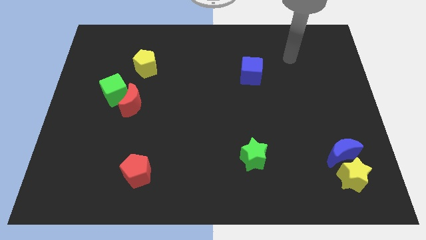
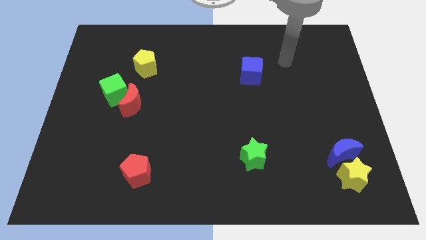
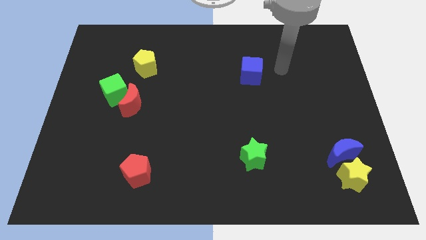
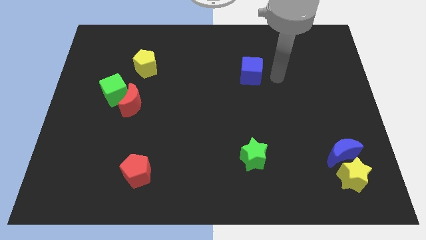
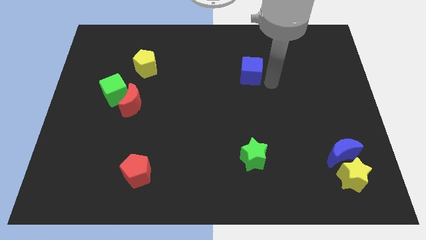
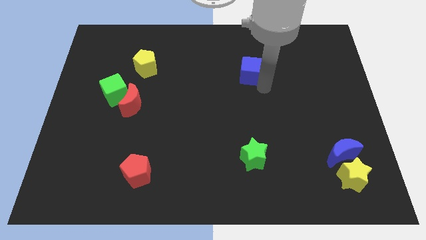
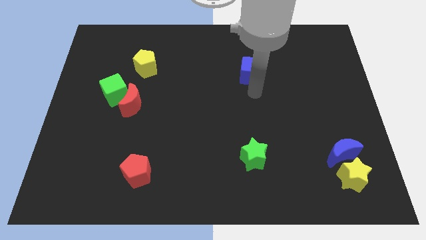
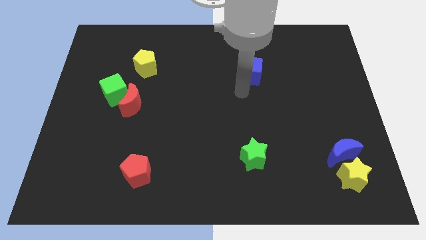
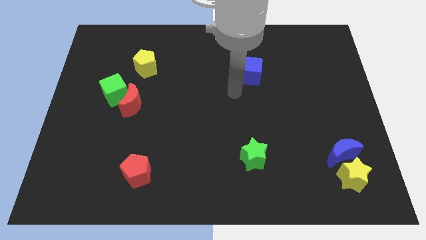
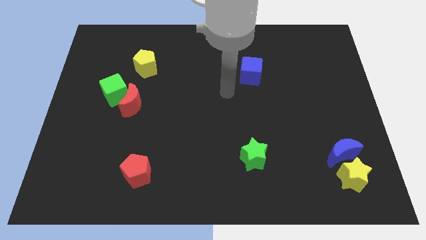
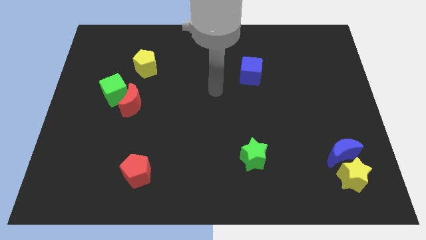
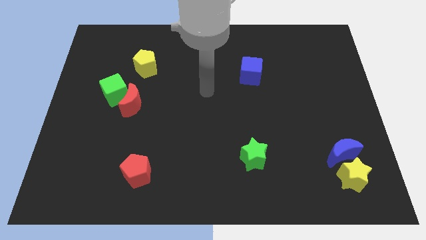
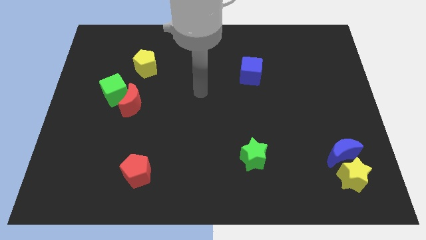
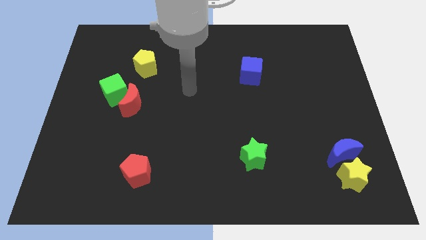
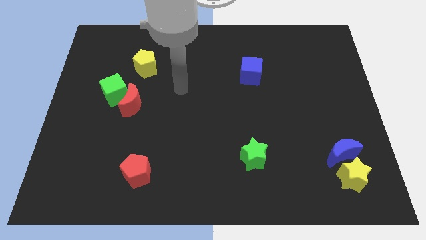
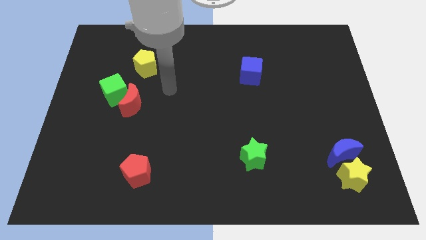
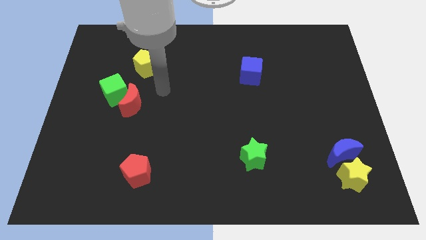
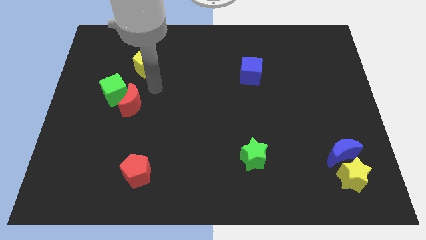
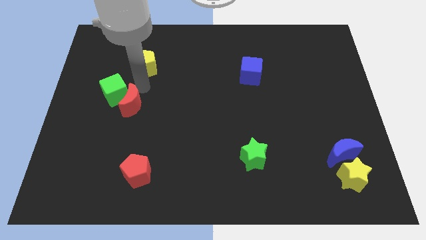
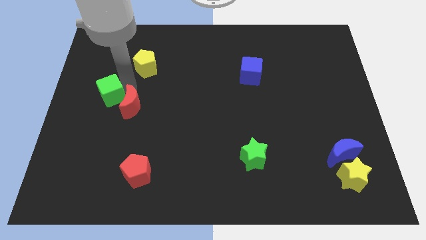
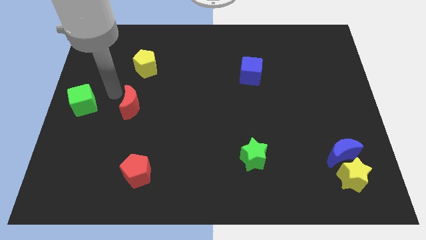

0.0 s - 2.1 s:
pull the red moon apart from the green cube

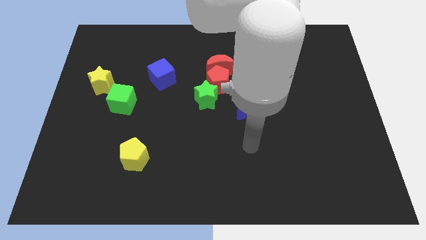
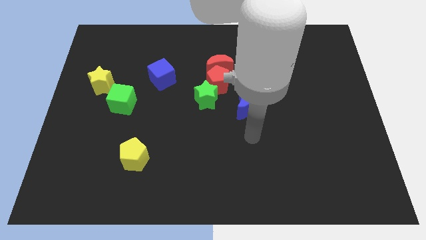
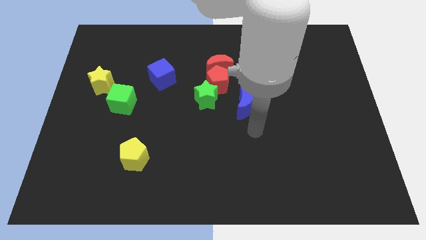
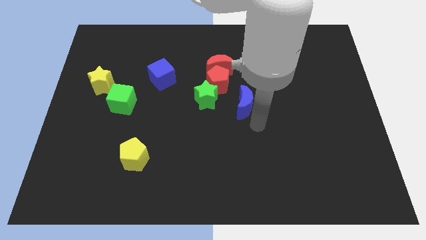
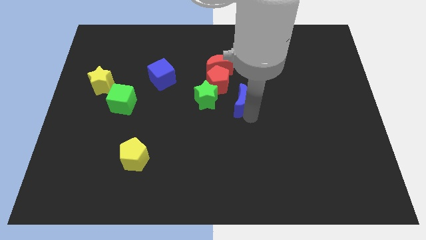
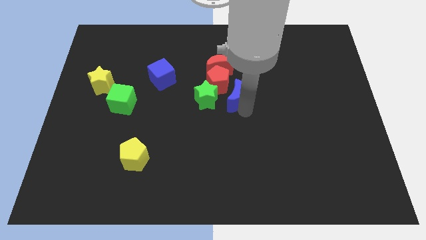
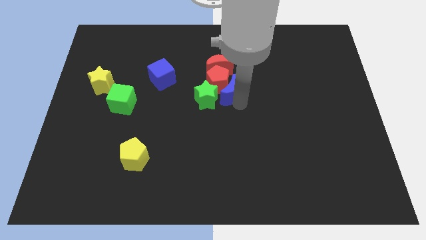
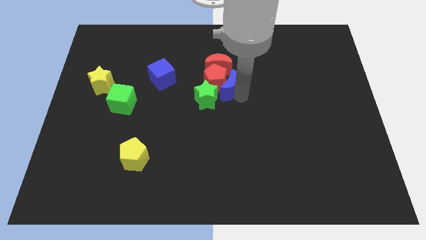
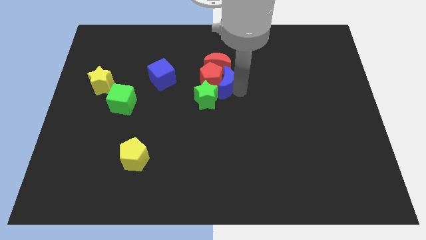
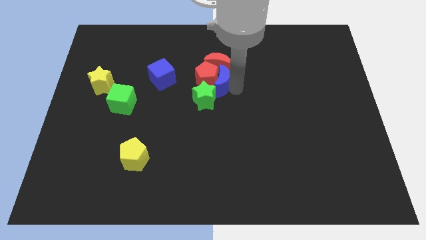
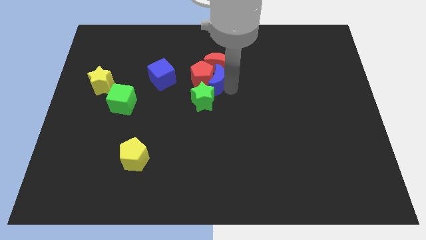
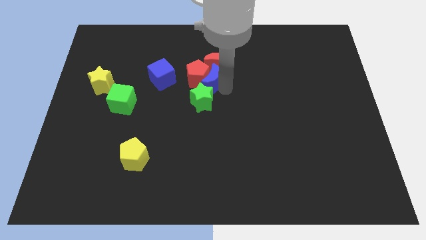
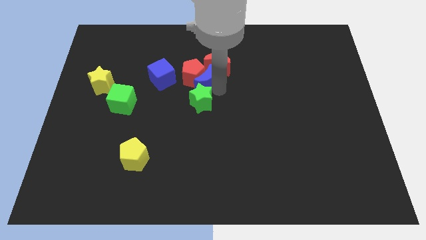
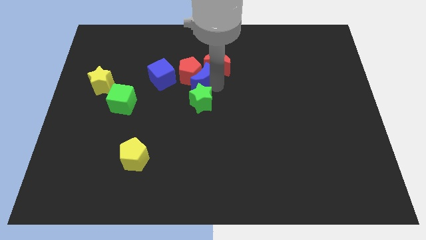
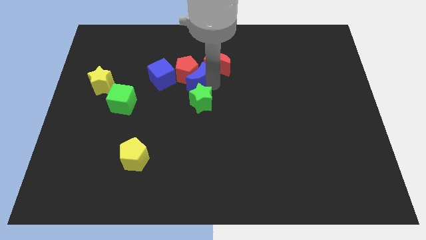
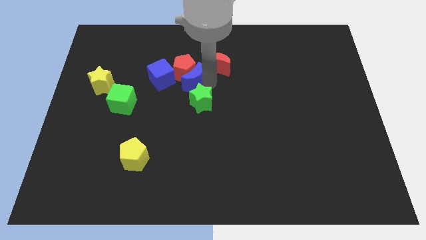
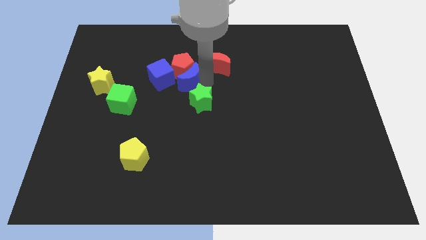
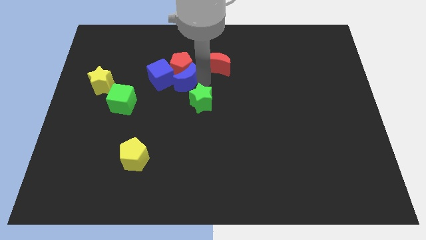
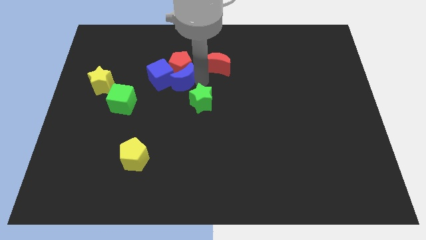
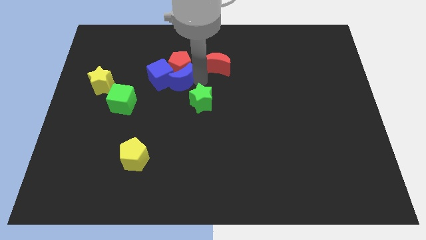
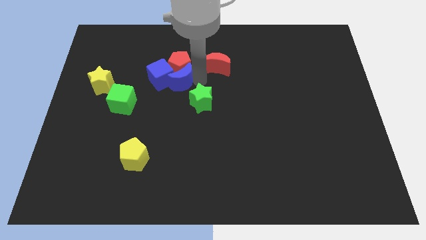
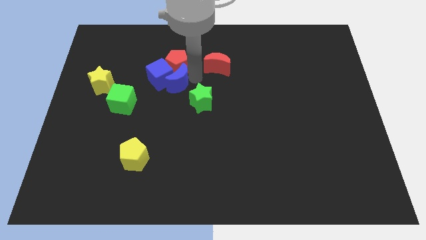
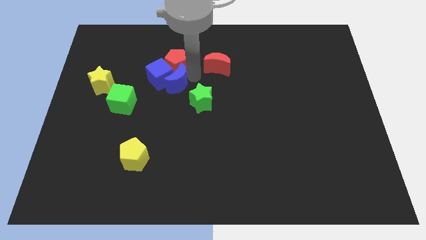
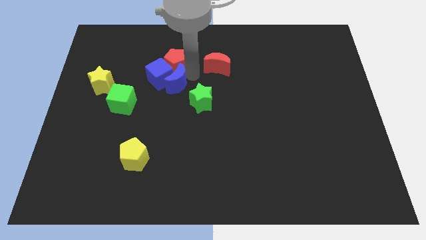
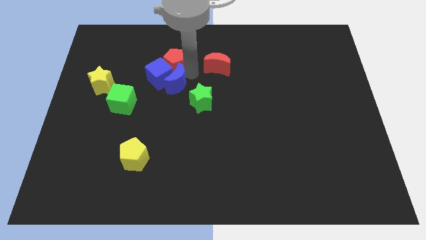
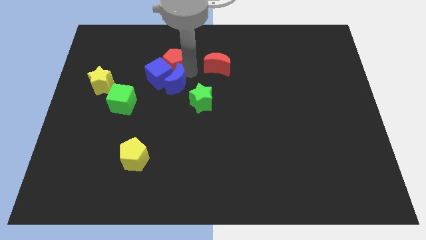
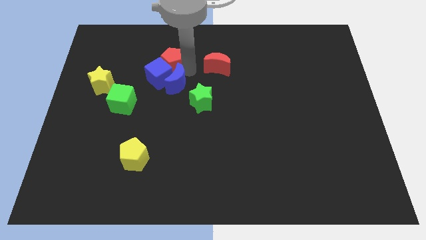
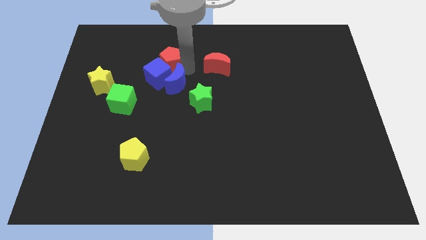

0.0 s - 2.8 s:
pull the red pentagon apart from the red moon, green star, and blue moon

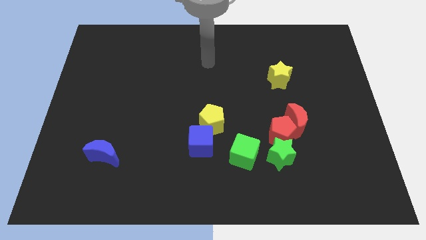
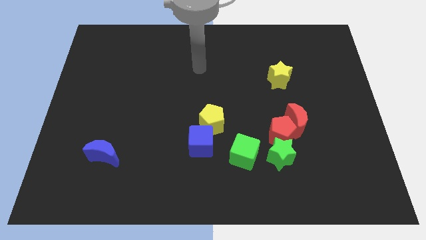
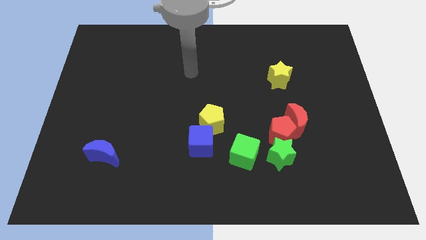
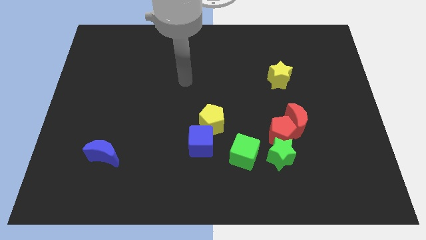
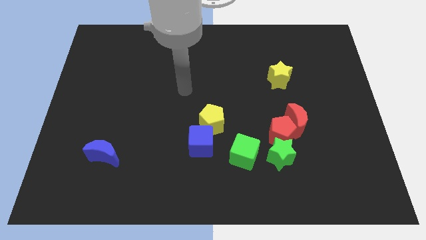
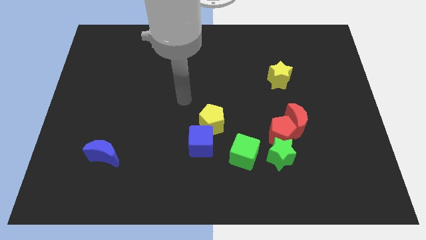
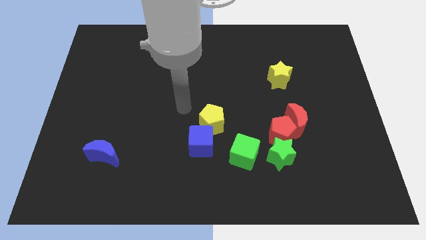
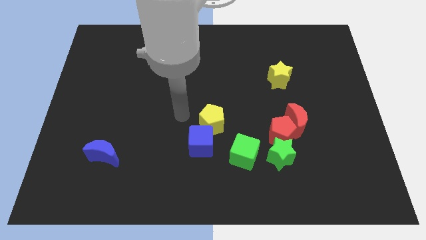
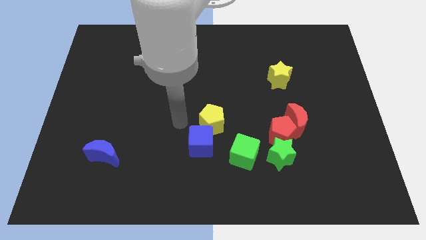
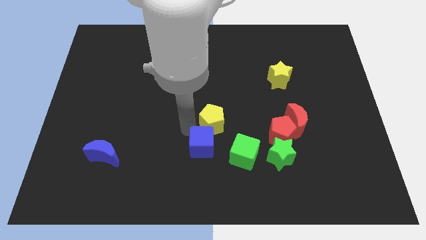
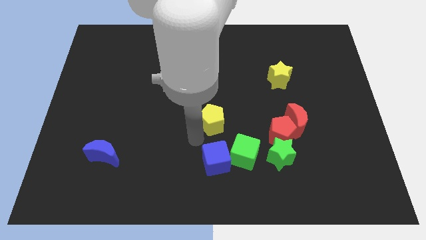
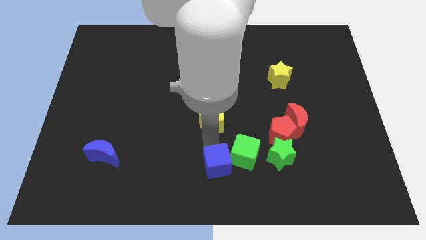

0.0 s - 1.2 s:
separate the yellow pentagon from the blue cube

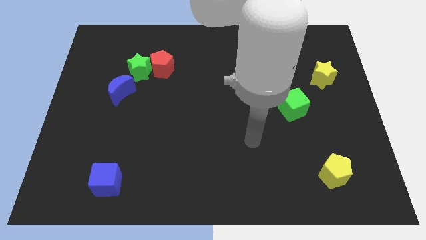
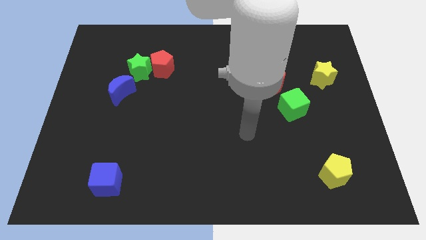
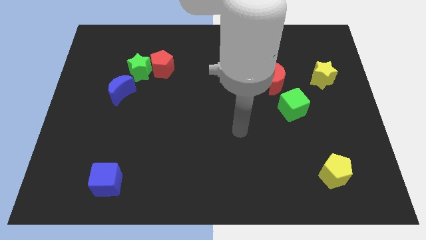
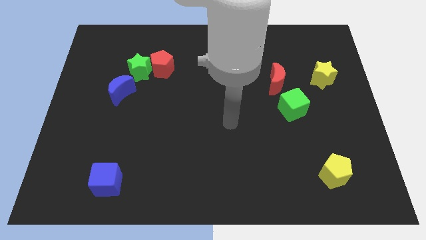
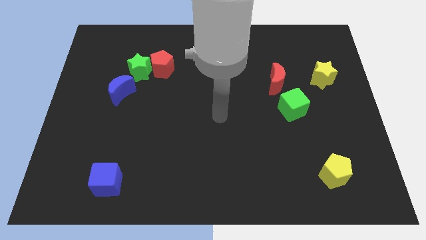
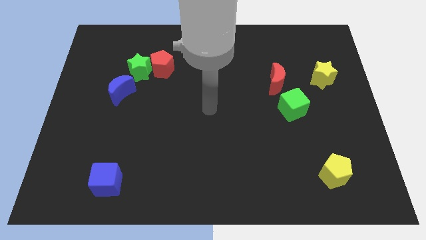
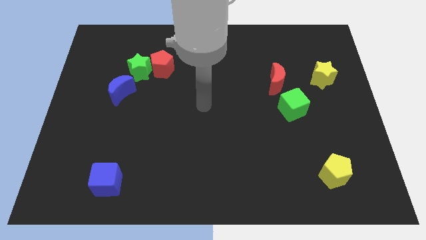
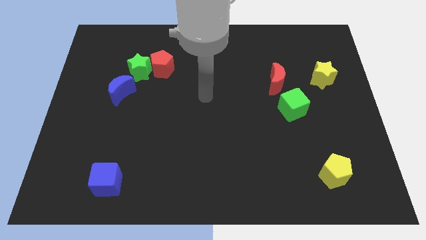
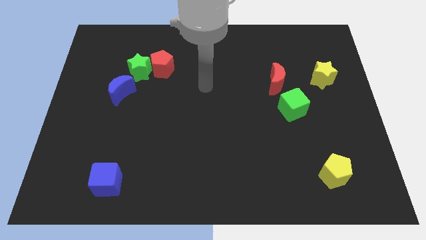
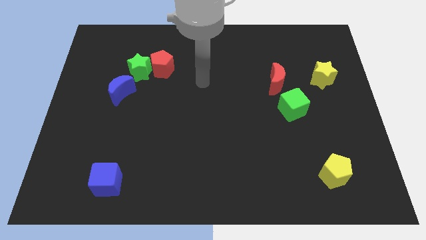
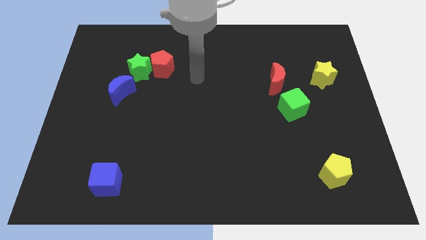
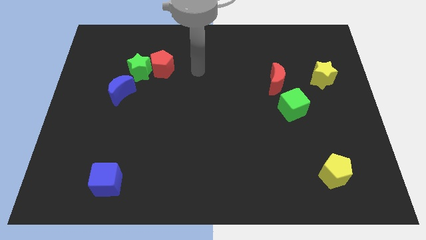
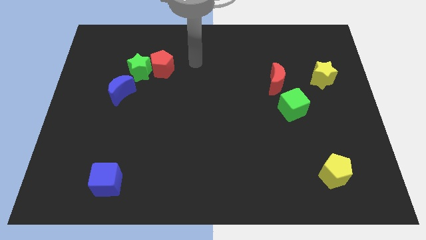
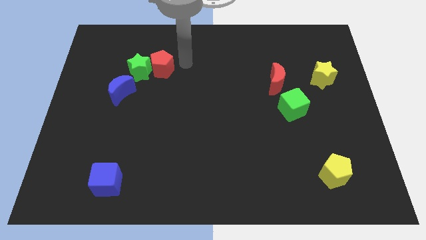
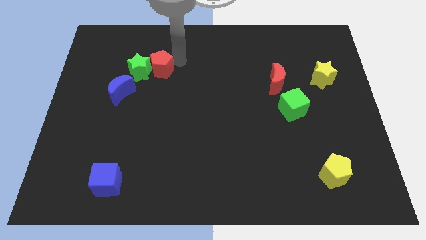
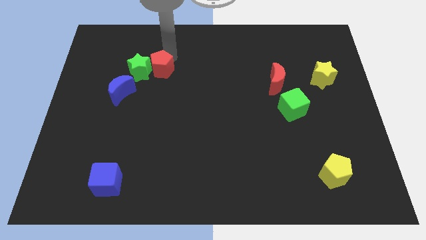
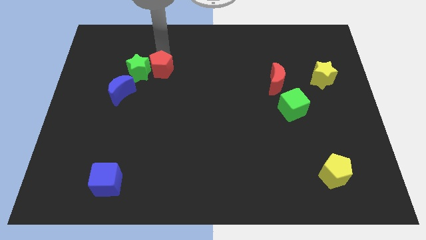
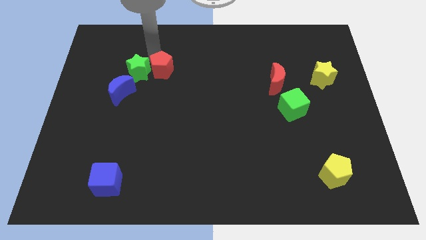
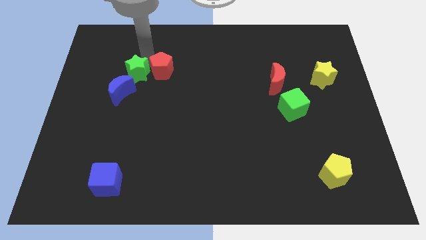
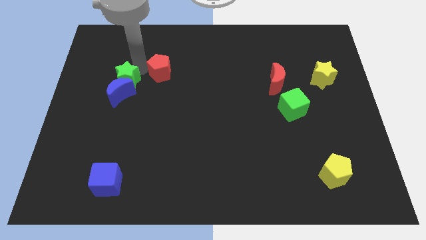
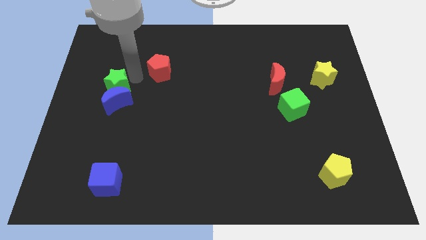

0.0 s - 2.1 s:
pull the red pentagon apart from the green star

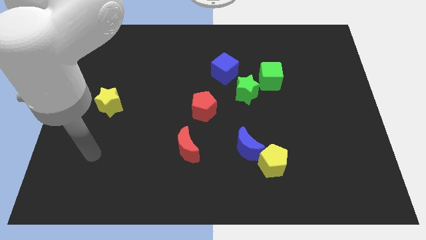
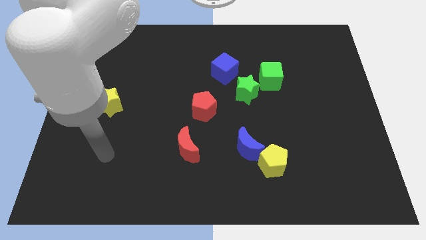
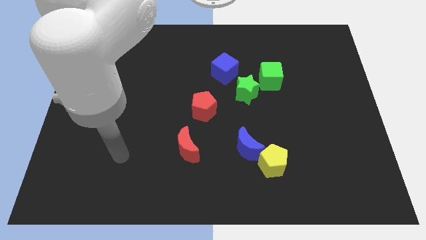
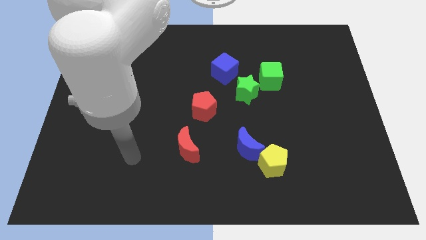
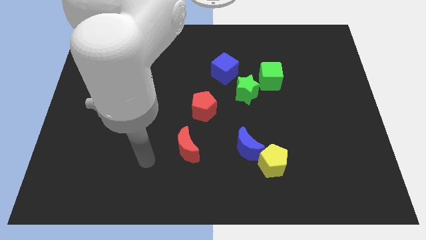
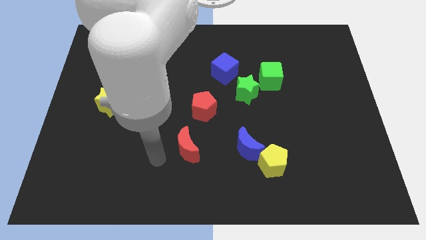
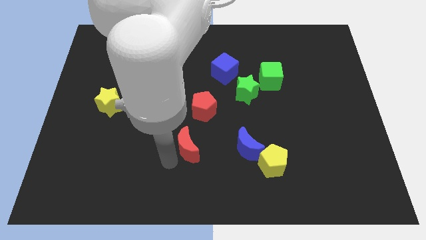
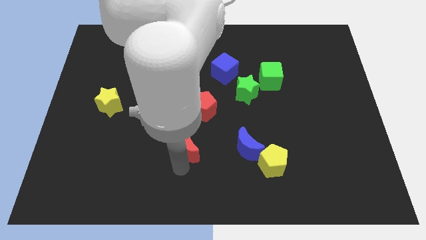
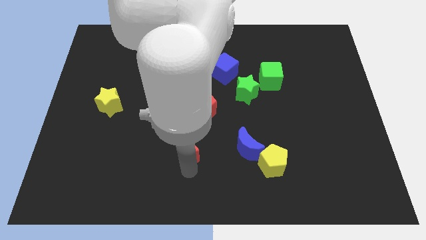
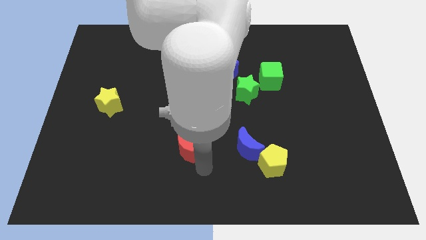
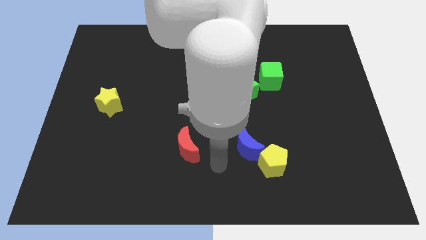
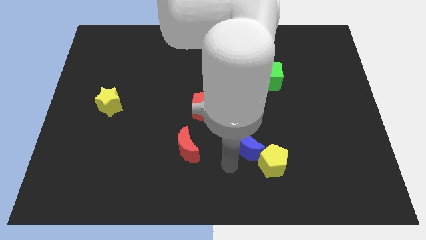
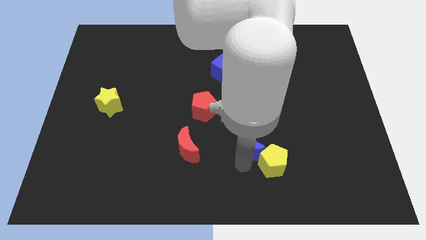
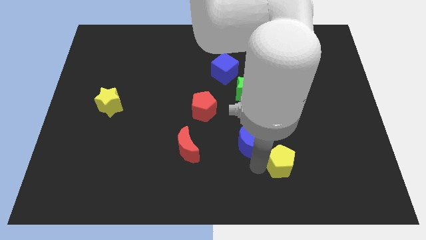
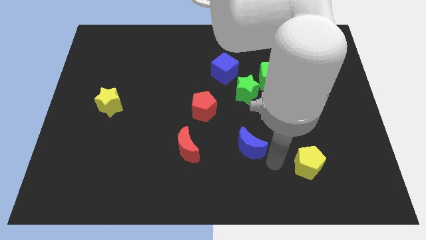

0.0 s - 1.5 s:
pull the blue moon apart from the yellow pentagon
